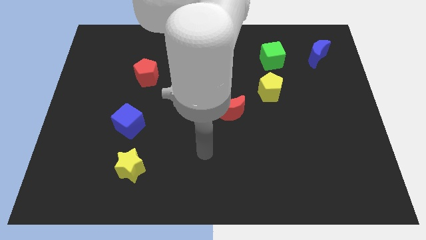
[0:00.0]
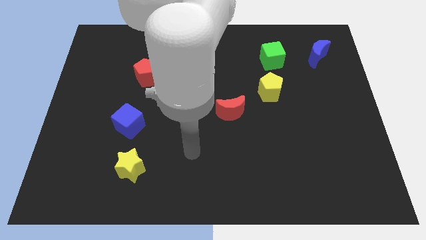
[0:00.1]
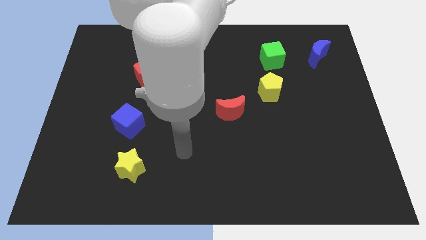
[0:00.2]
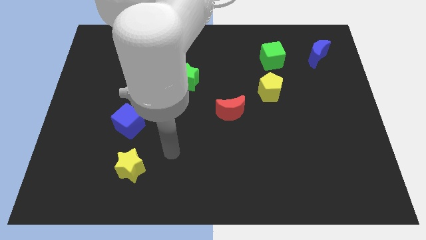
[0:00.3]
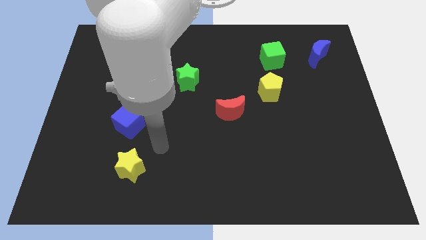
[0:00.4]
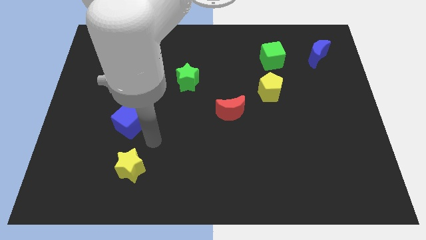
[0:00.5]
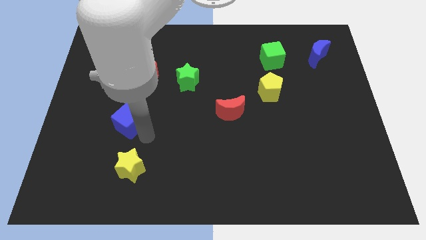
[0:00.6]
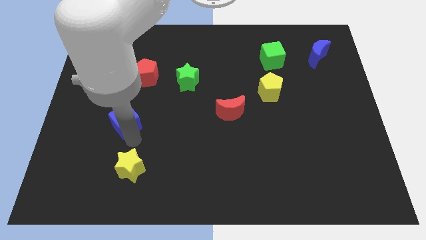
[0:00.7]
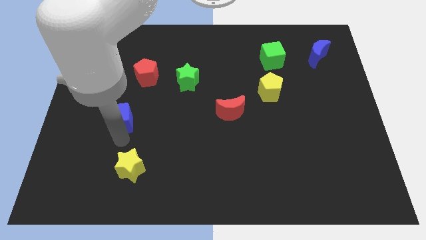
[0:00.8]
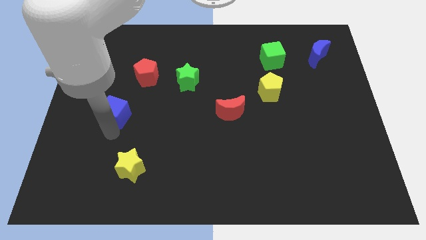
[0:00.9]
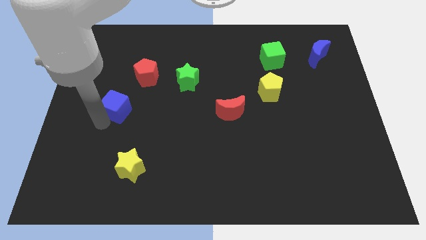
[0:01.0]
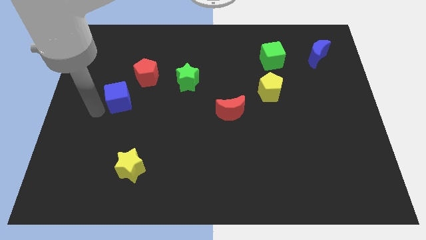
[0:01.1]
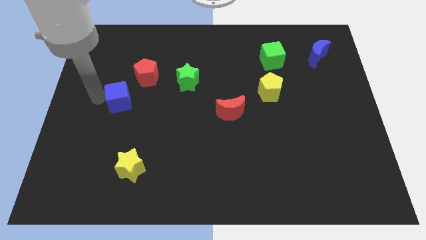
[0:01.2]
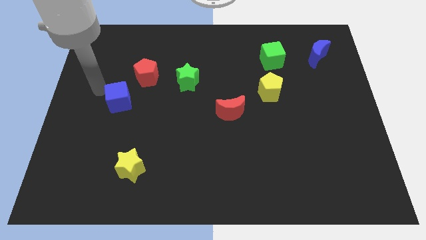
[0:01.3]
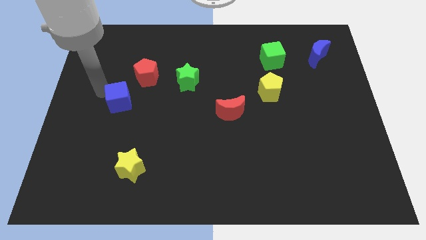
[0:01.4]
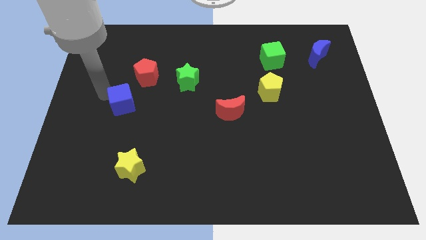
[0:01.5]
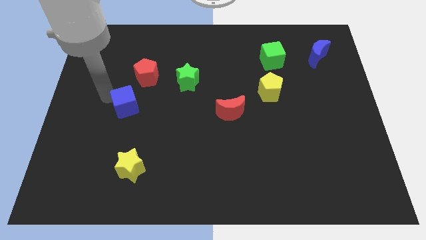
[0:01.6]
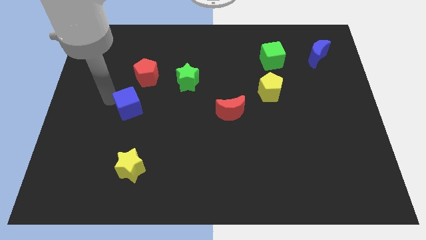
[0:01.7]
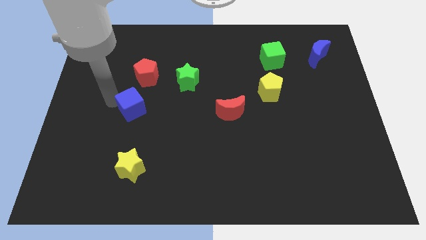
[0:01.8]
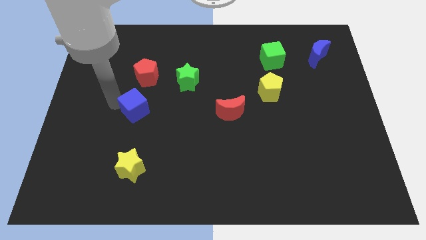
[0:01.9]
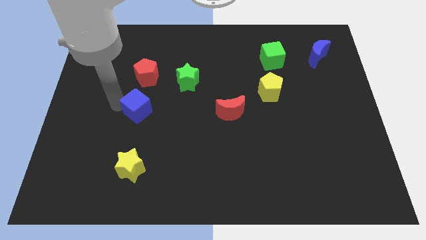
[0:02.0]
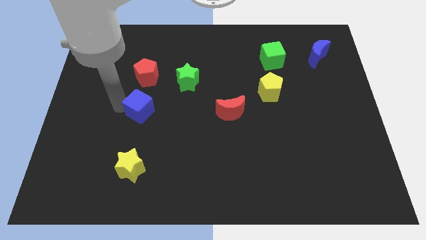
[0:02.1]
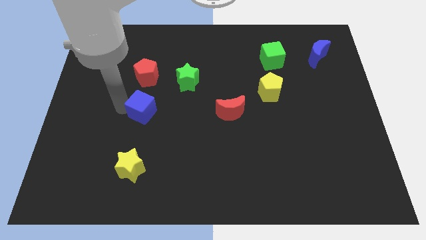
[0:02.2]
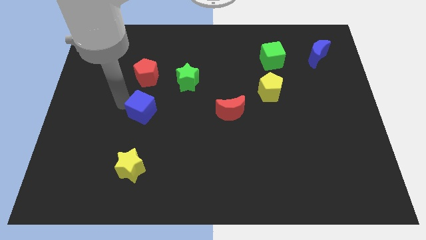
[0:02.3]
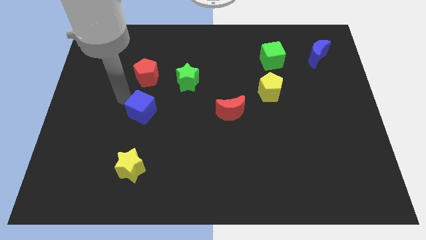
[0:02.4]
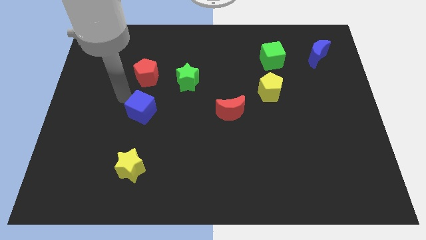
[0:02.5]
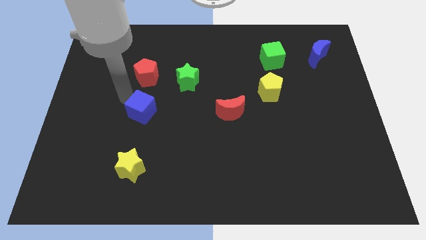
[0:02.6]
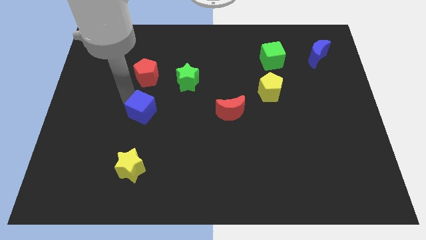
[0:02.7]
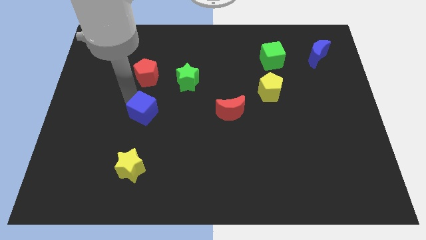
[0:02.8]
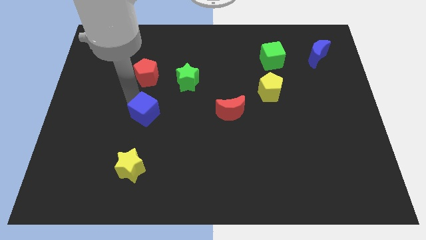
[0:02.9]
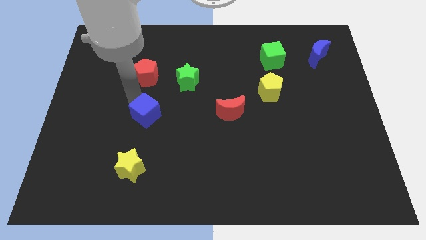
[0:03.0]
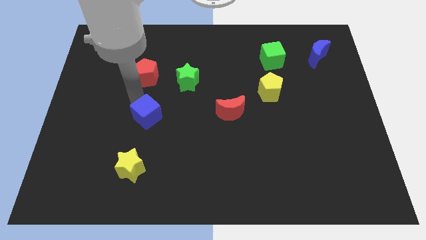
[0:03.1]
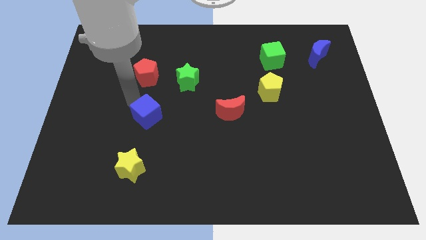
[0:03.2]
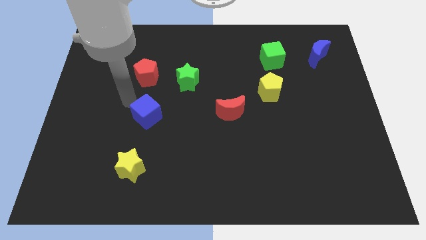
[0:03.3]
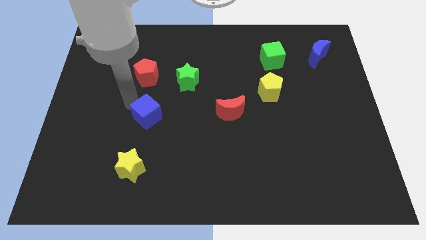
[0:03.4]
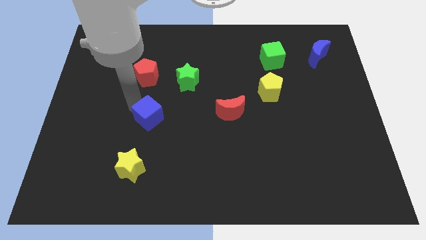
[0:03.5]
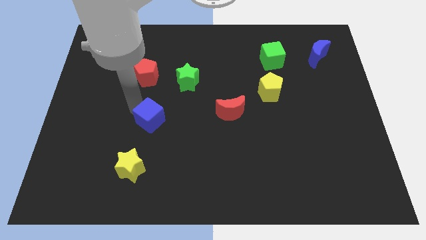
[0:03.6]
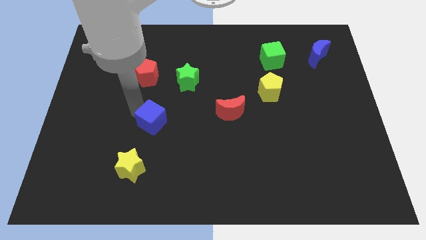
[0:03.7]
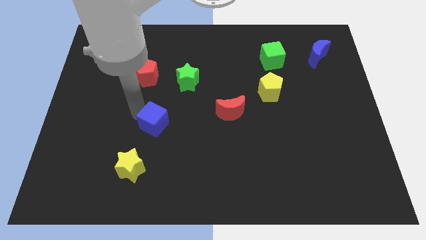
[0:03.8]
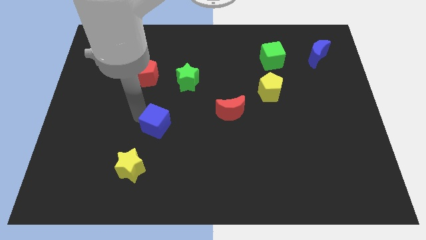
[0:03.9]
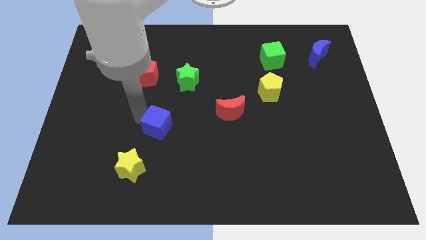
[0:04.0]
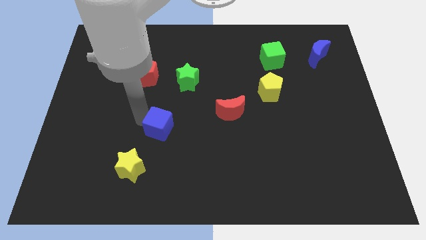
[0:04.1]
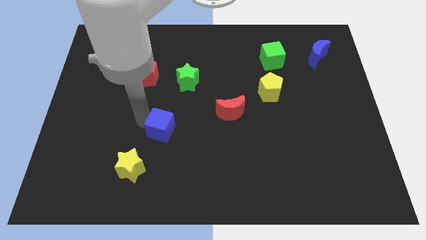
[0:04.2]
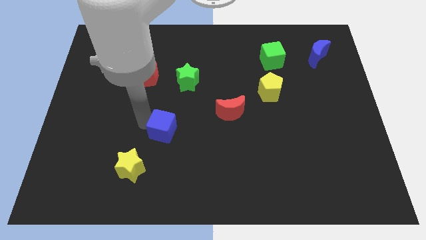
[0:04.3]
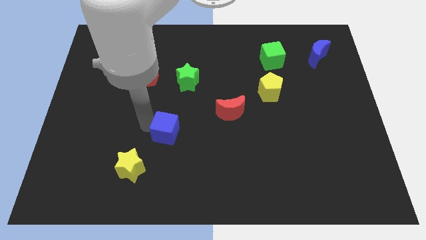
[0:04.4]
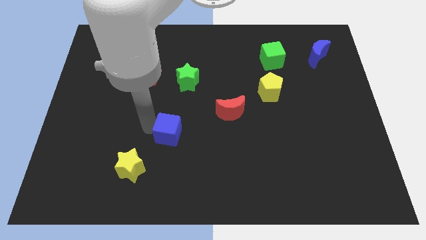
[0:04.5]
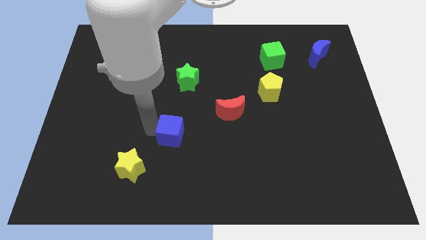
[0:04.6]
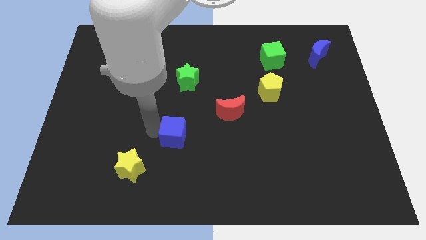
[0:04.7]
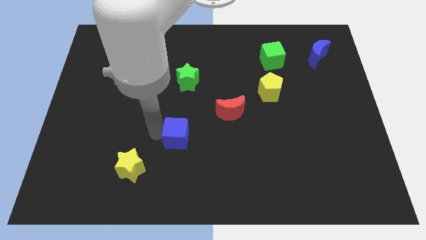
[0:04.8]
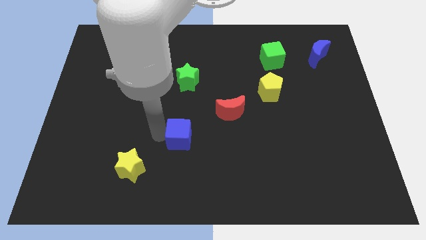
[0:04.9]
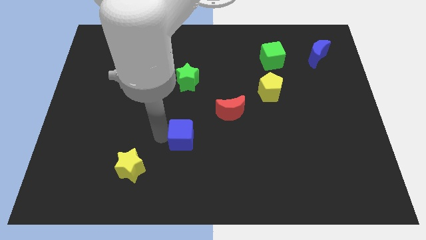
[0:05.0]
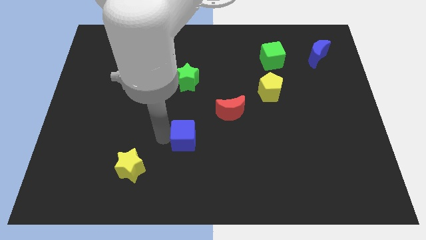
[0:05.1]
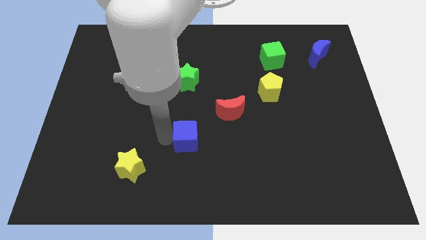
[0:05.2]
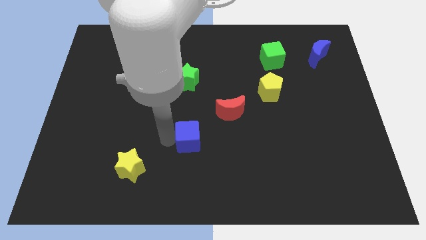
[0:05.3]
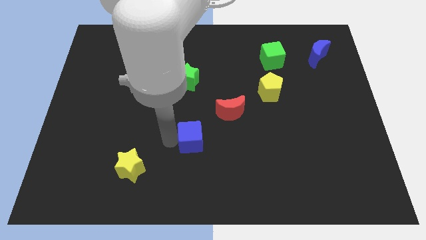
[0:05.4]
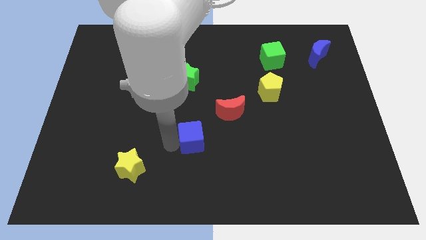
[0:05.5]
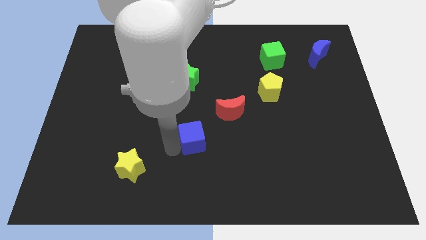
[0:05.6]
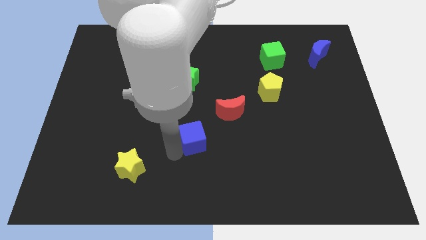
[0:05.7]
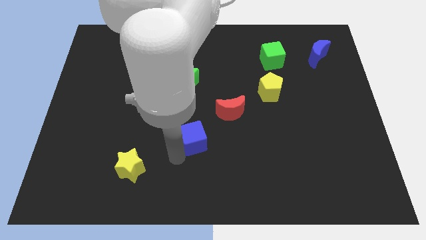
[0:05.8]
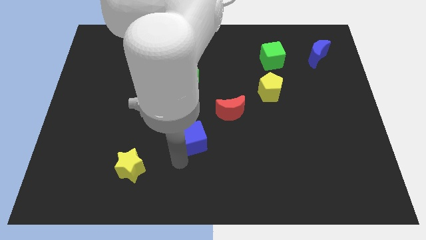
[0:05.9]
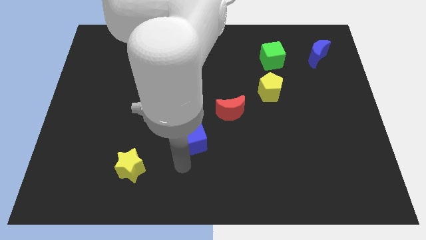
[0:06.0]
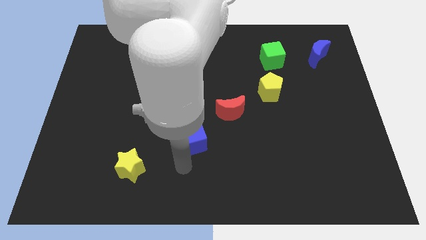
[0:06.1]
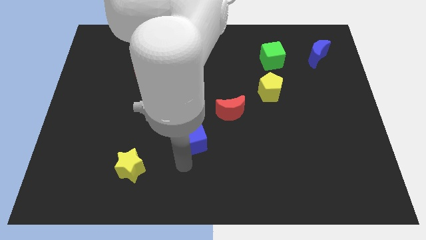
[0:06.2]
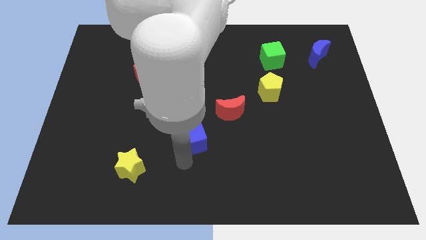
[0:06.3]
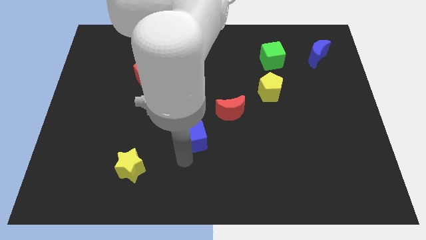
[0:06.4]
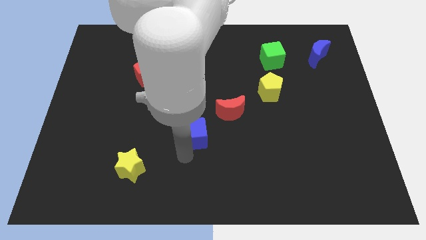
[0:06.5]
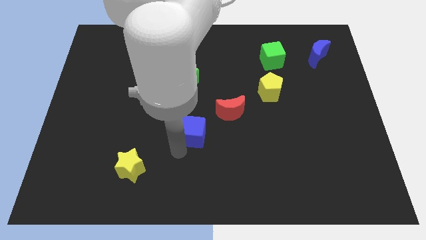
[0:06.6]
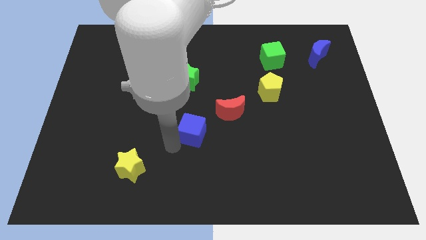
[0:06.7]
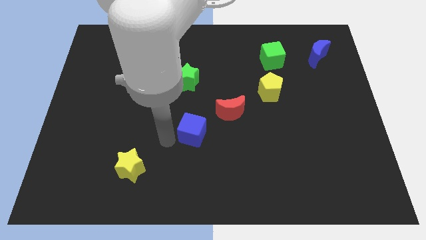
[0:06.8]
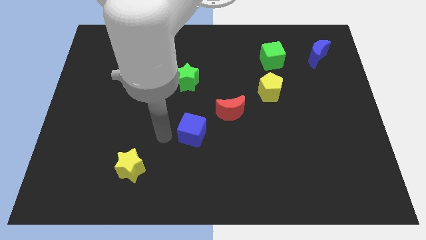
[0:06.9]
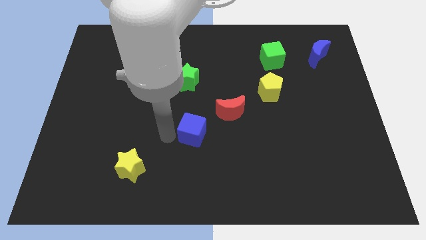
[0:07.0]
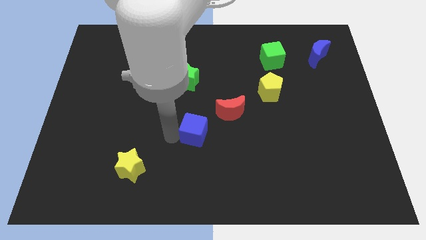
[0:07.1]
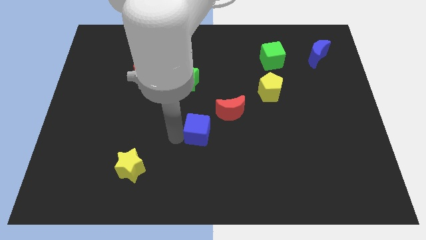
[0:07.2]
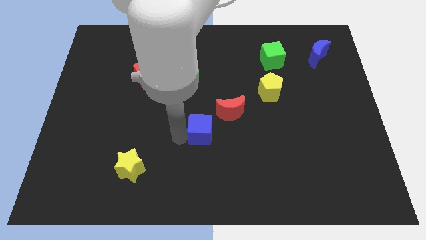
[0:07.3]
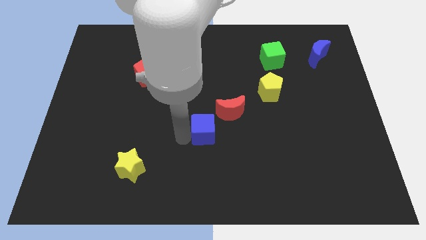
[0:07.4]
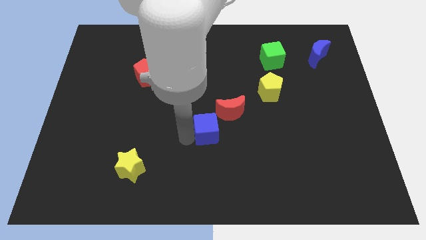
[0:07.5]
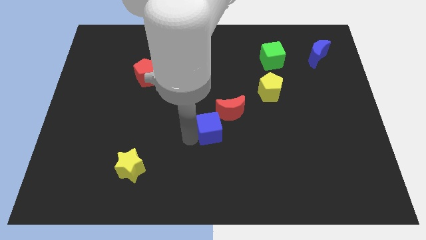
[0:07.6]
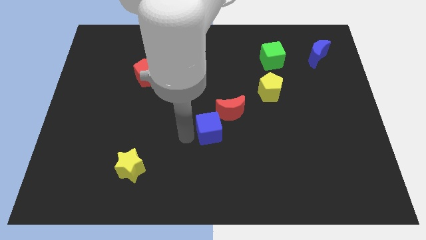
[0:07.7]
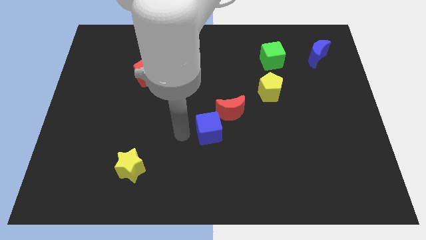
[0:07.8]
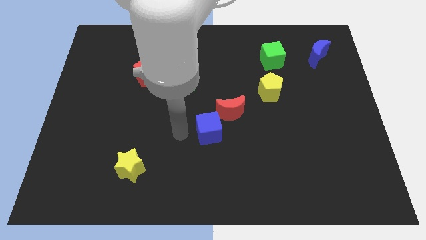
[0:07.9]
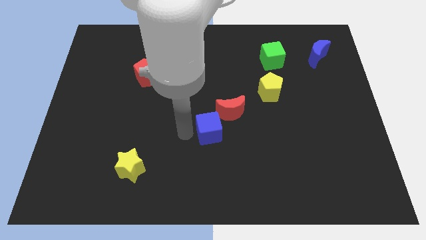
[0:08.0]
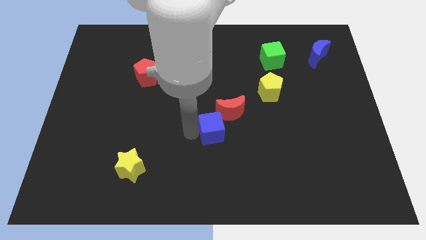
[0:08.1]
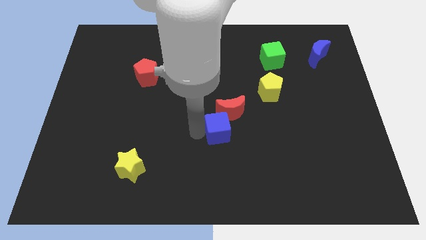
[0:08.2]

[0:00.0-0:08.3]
push the blue cube right
